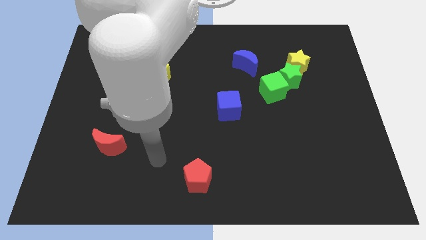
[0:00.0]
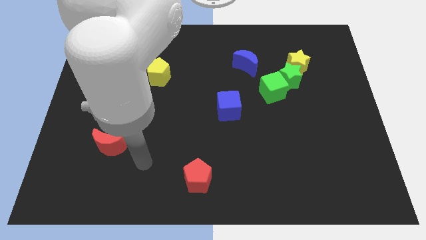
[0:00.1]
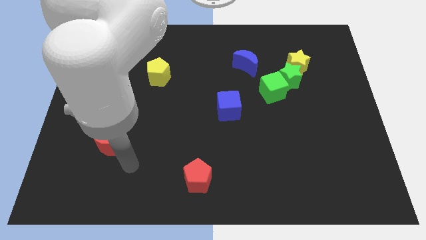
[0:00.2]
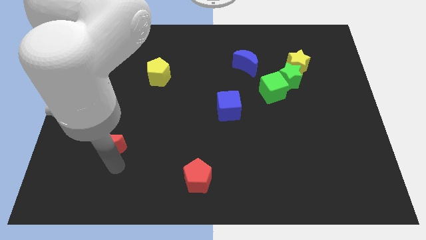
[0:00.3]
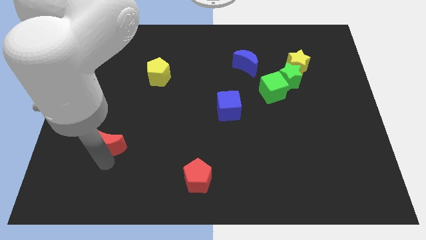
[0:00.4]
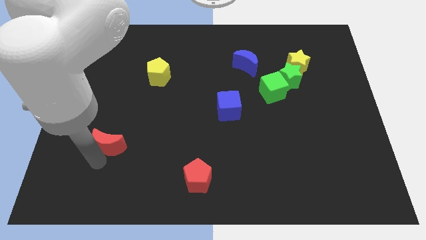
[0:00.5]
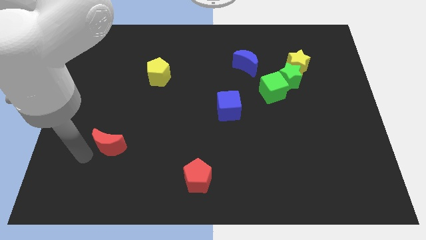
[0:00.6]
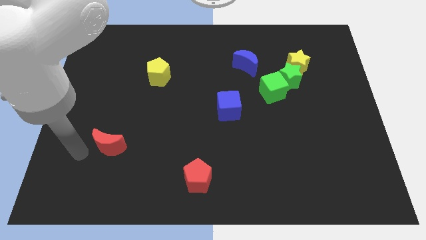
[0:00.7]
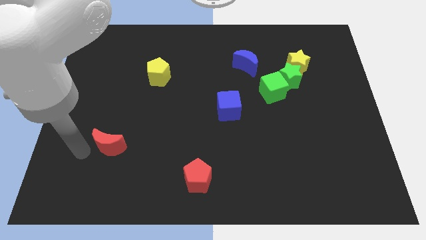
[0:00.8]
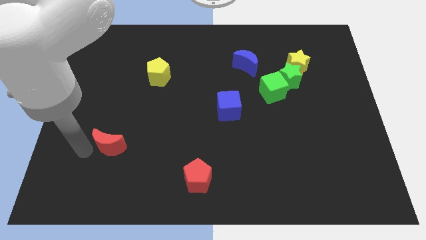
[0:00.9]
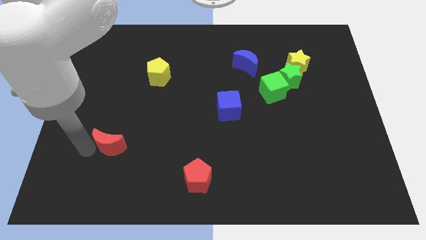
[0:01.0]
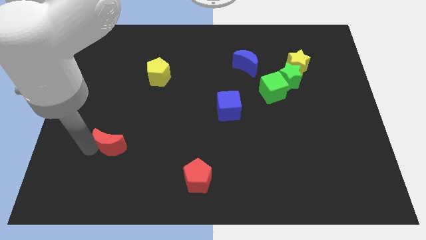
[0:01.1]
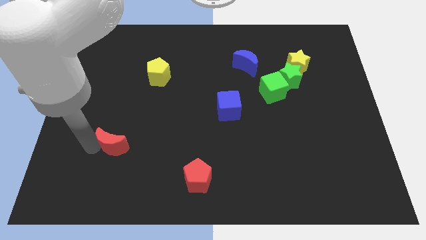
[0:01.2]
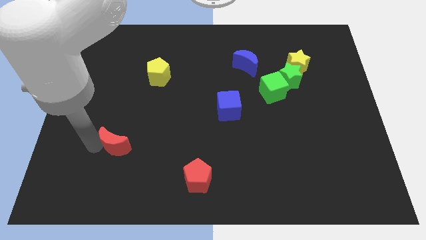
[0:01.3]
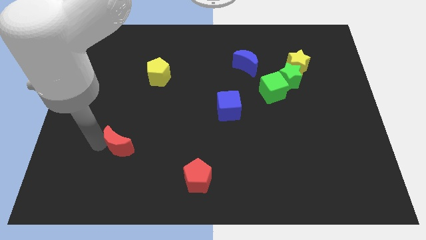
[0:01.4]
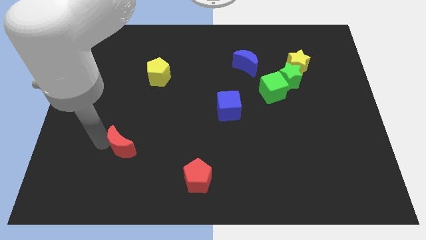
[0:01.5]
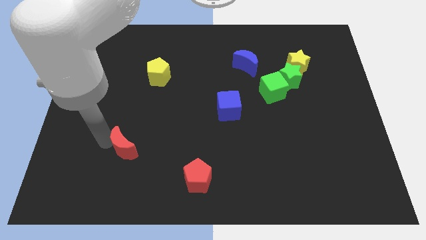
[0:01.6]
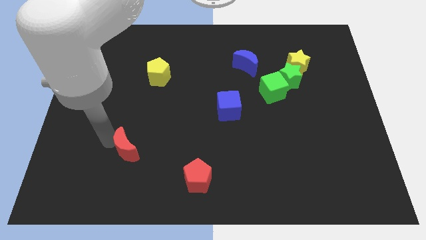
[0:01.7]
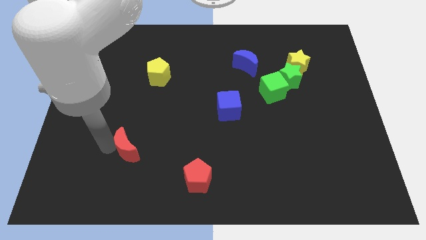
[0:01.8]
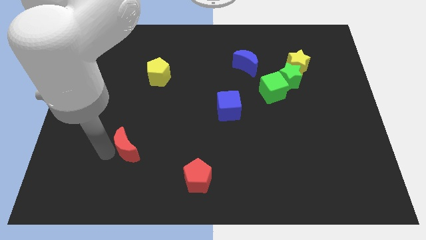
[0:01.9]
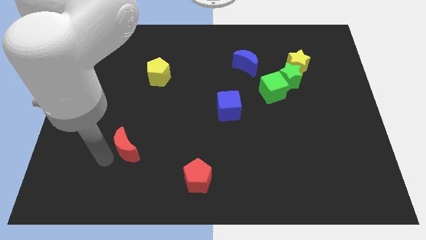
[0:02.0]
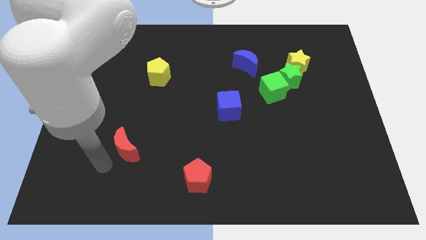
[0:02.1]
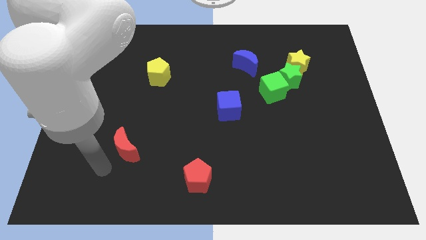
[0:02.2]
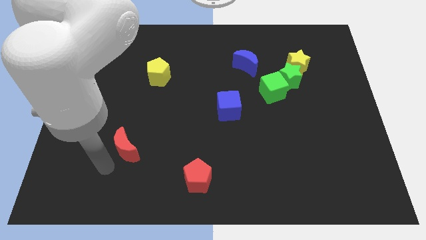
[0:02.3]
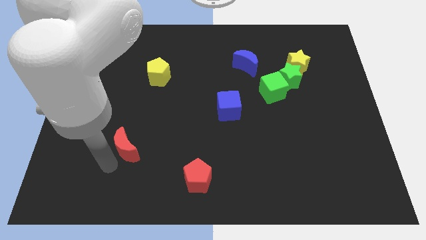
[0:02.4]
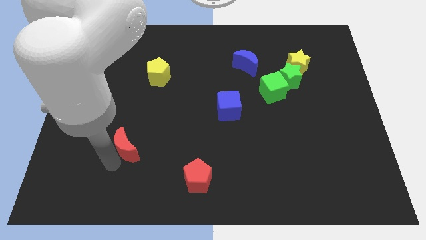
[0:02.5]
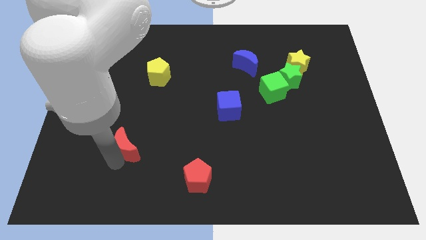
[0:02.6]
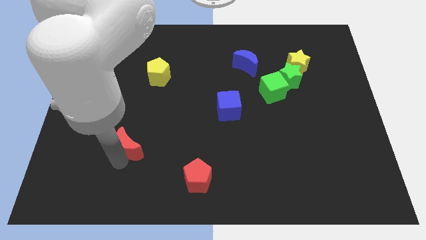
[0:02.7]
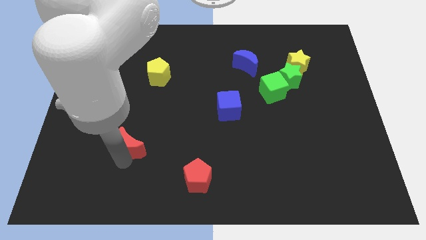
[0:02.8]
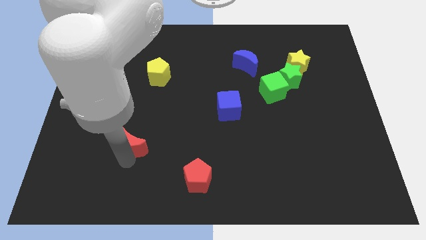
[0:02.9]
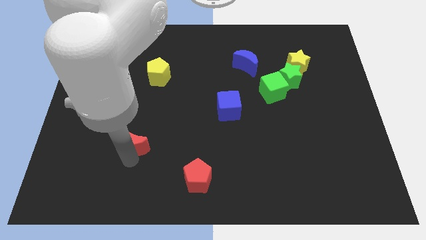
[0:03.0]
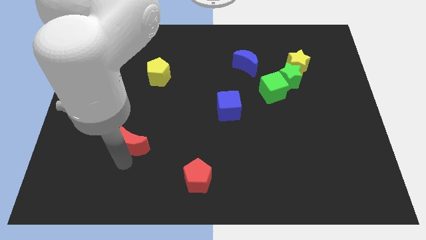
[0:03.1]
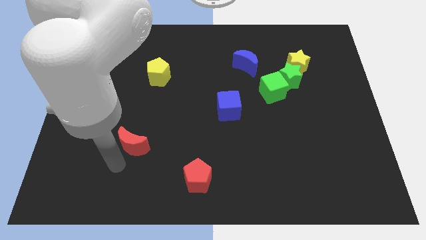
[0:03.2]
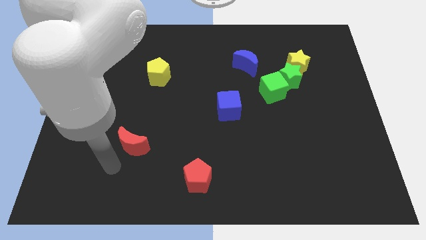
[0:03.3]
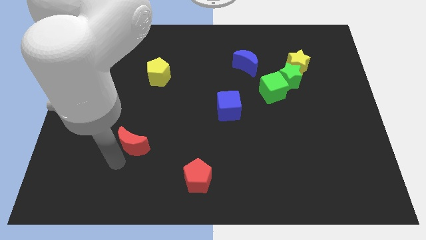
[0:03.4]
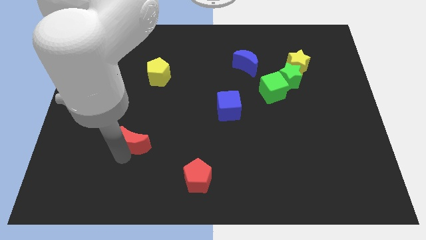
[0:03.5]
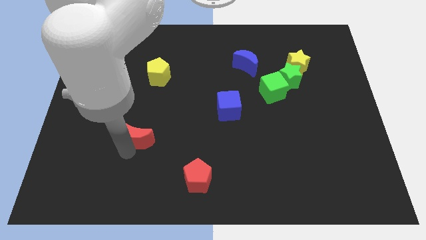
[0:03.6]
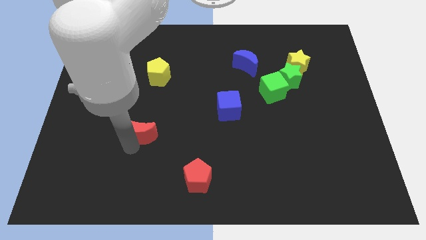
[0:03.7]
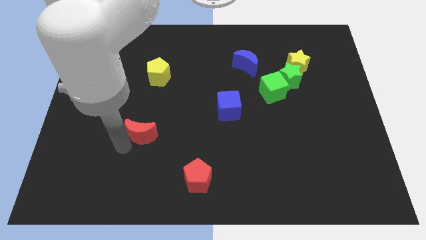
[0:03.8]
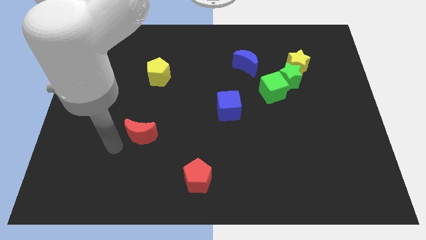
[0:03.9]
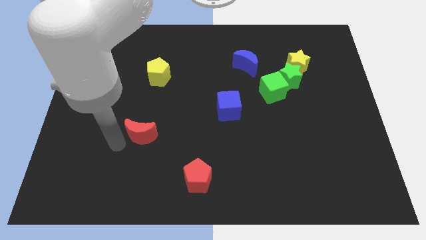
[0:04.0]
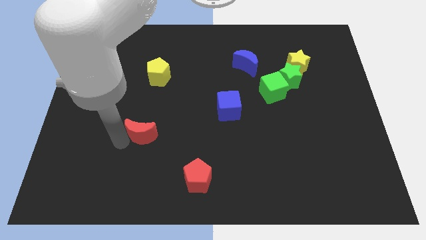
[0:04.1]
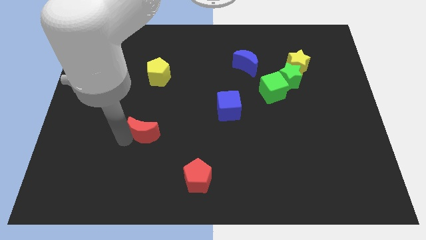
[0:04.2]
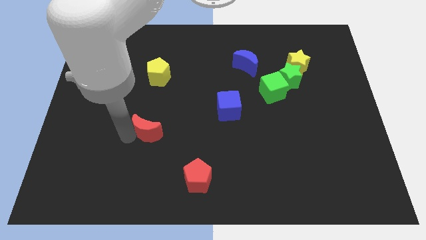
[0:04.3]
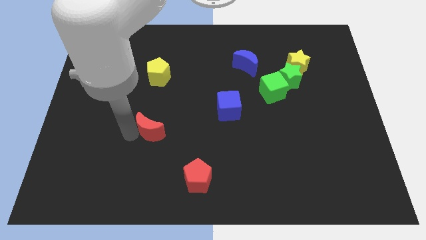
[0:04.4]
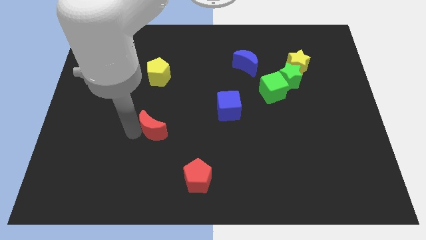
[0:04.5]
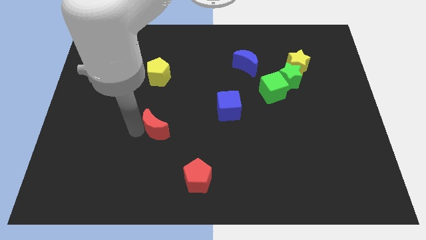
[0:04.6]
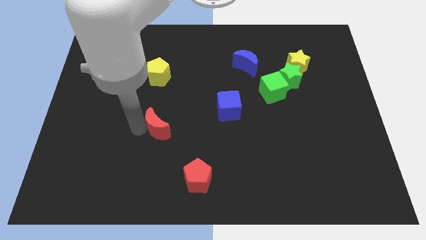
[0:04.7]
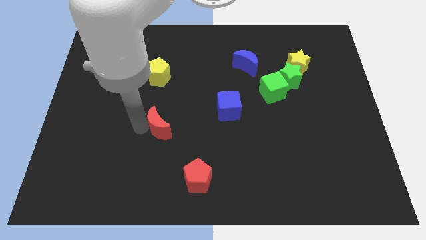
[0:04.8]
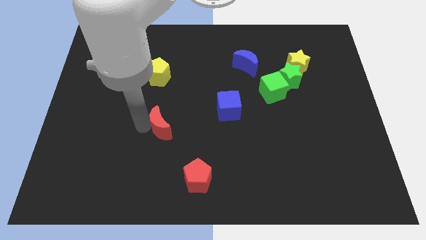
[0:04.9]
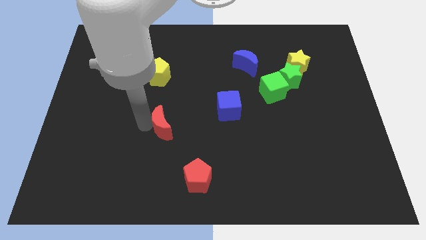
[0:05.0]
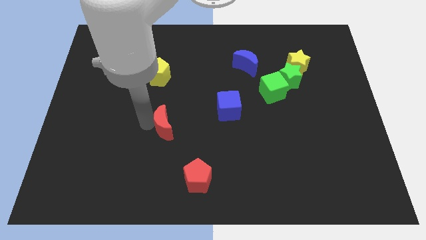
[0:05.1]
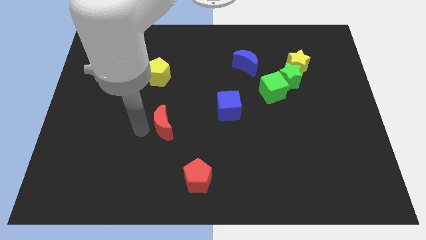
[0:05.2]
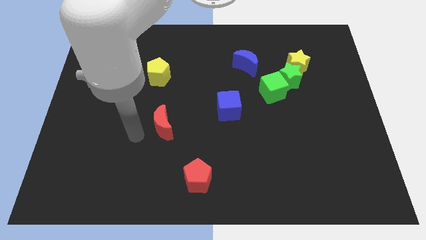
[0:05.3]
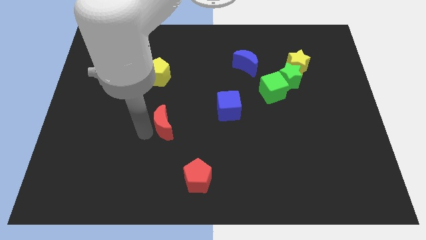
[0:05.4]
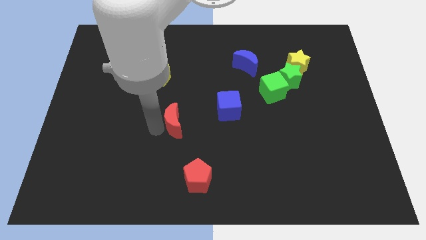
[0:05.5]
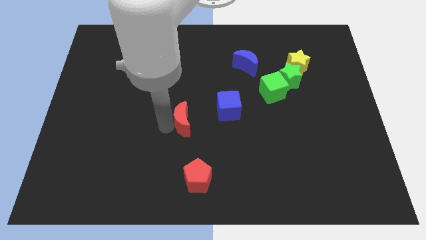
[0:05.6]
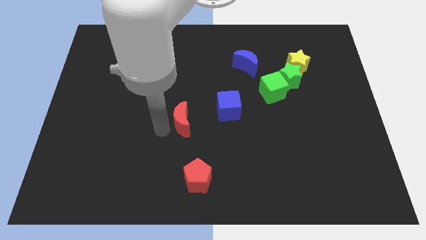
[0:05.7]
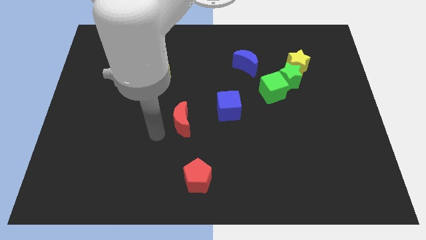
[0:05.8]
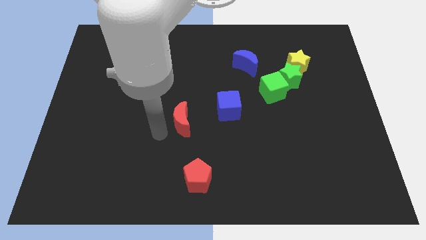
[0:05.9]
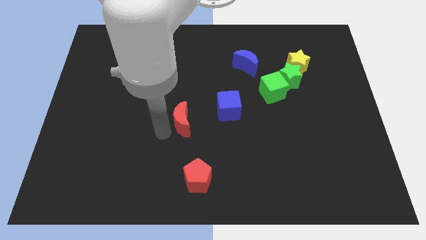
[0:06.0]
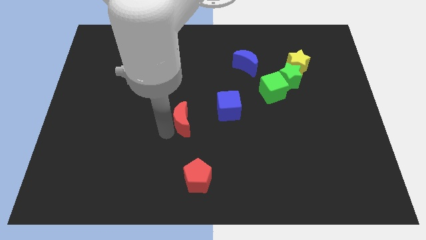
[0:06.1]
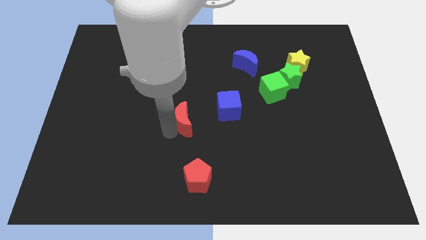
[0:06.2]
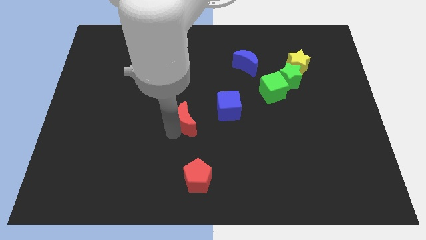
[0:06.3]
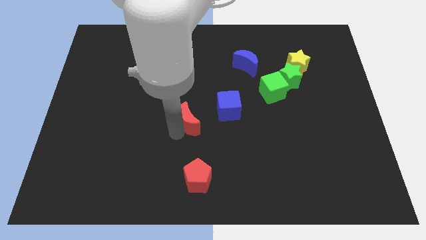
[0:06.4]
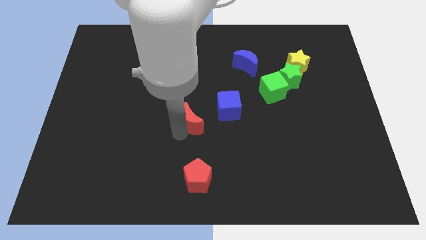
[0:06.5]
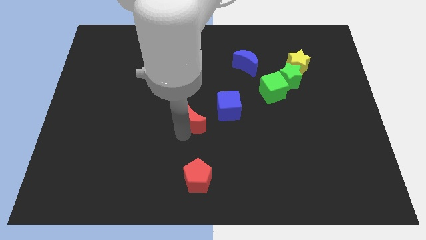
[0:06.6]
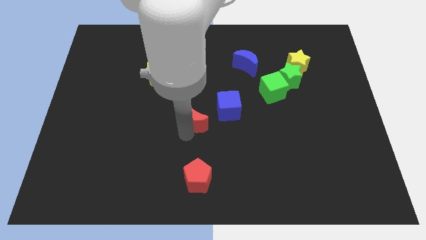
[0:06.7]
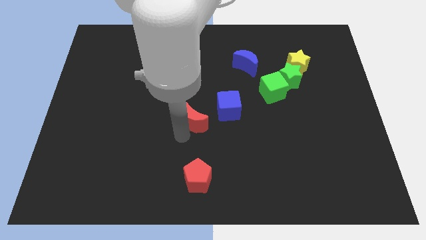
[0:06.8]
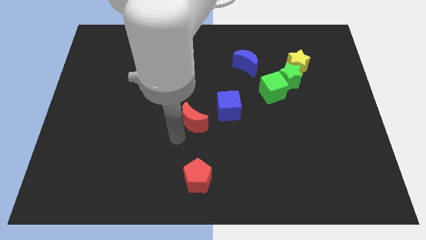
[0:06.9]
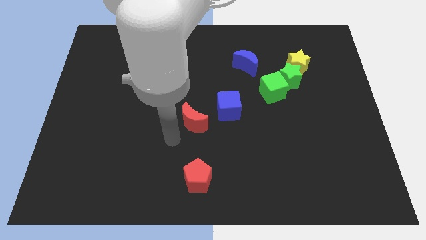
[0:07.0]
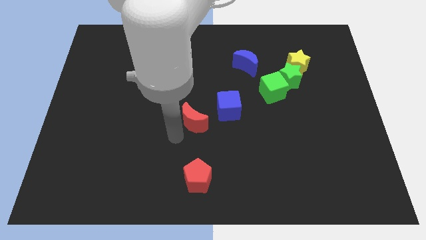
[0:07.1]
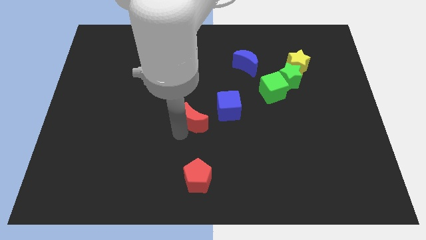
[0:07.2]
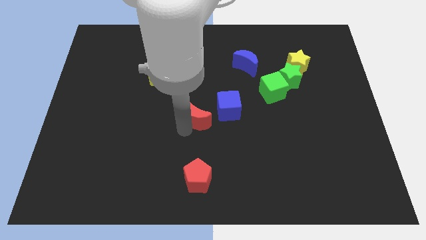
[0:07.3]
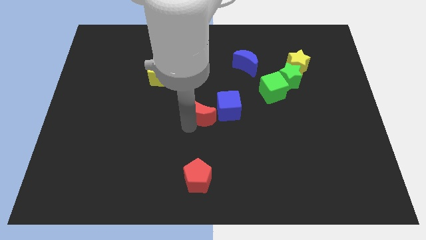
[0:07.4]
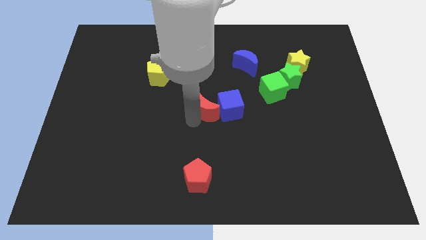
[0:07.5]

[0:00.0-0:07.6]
put the red moon to the blue cube

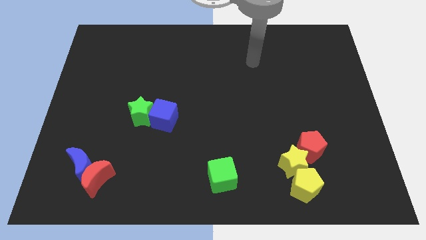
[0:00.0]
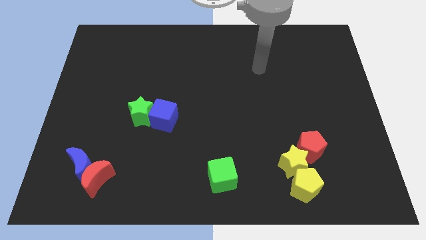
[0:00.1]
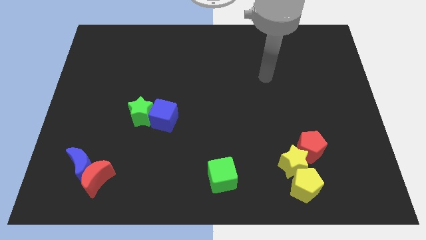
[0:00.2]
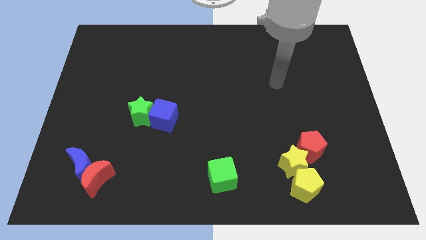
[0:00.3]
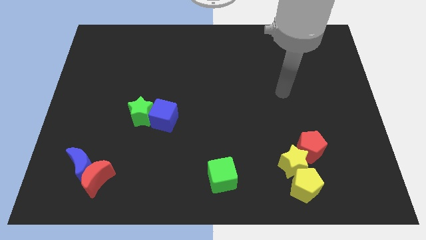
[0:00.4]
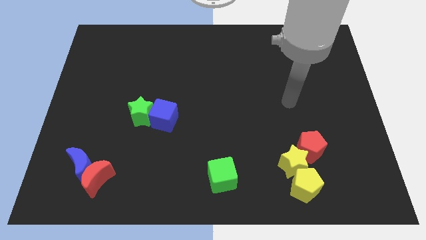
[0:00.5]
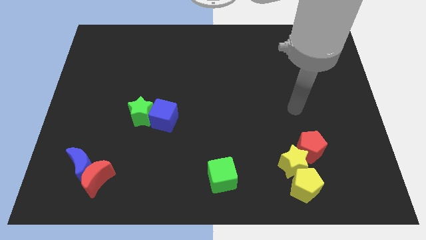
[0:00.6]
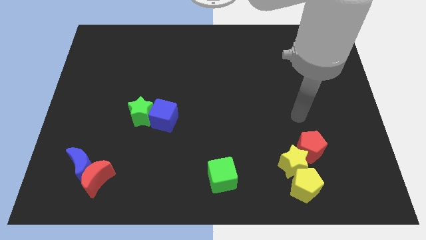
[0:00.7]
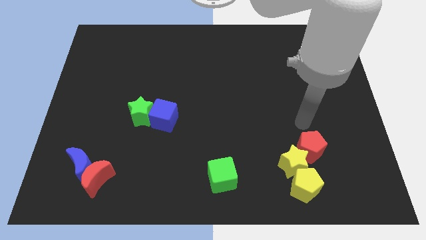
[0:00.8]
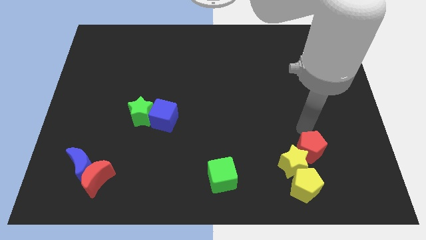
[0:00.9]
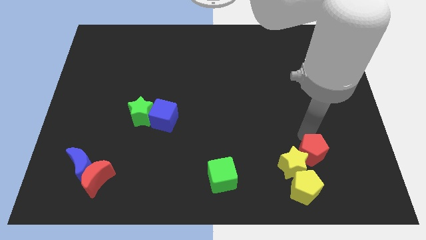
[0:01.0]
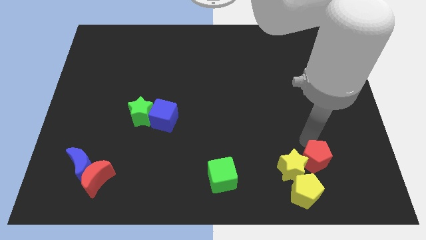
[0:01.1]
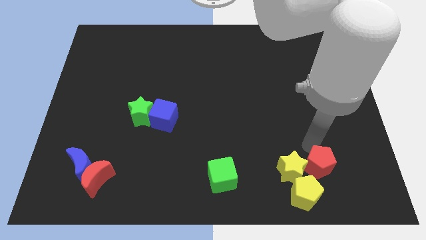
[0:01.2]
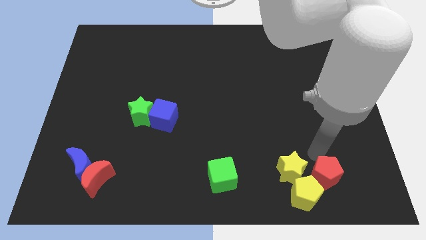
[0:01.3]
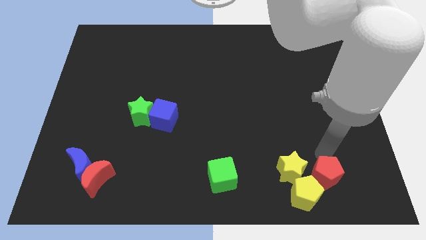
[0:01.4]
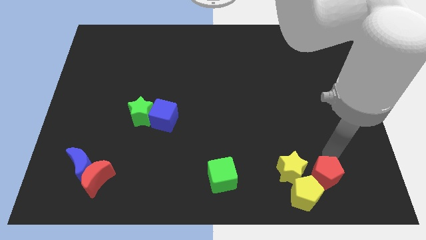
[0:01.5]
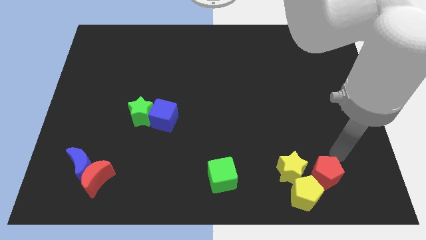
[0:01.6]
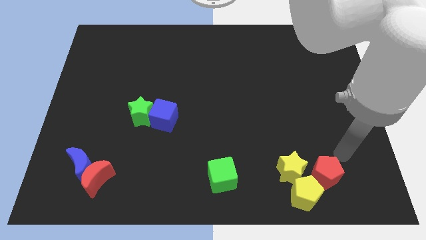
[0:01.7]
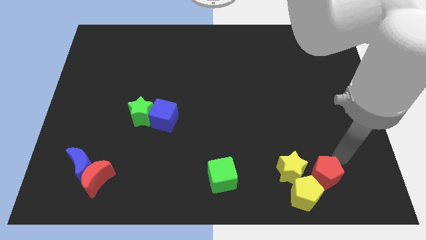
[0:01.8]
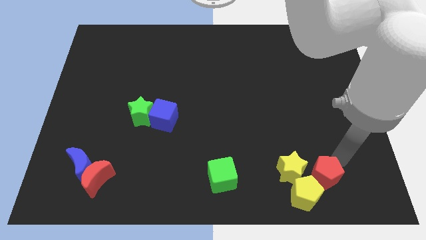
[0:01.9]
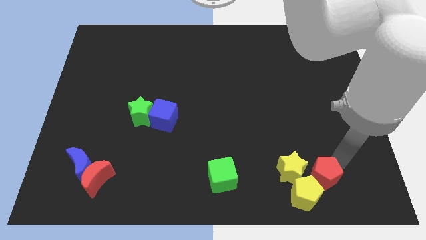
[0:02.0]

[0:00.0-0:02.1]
put the red pentagon close to the yellow pentagon
